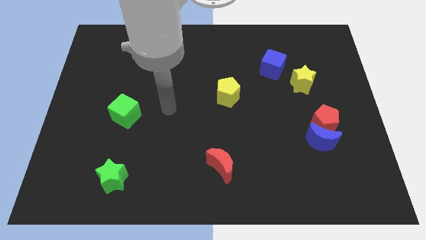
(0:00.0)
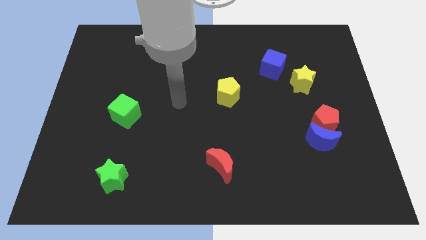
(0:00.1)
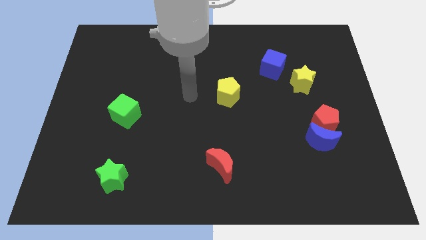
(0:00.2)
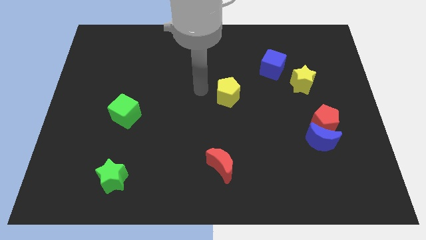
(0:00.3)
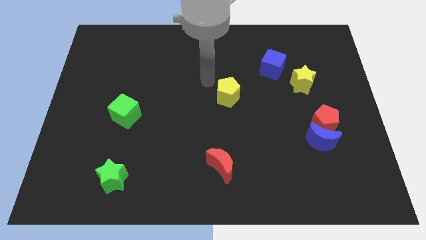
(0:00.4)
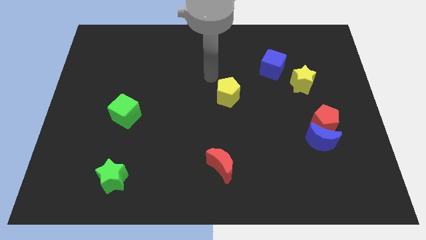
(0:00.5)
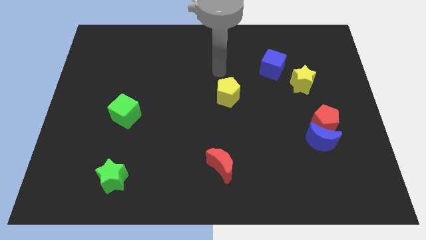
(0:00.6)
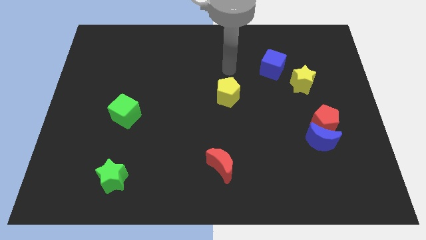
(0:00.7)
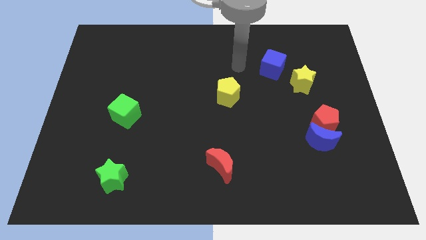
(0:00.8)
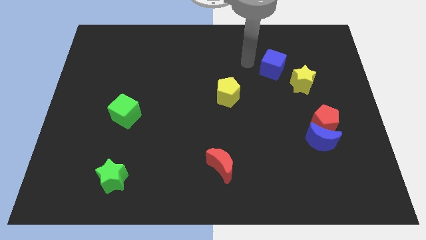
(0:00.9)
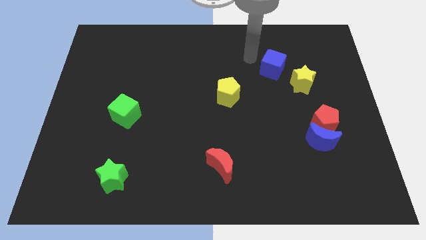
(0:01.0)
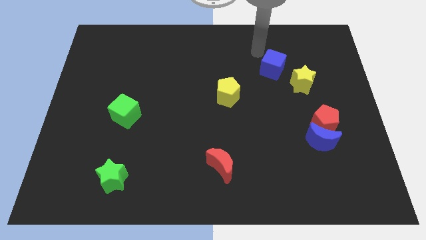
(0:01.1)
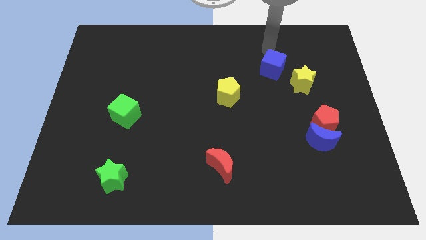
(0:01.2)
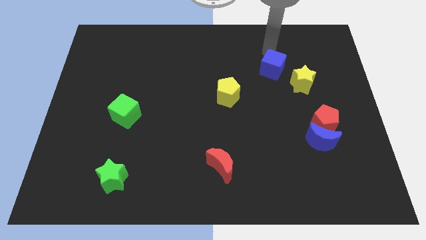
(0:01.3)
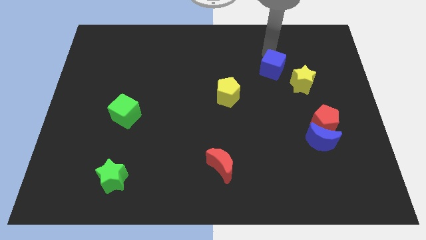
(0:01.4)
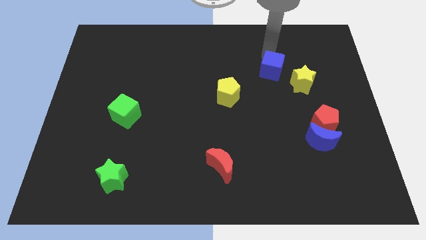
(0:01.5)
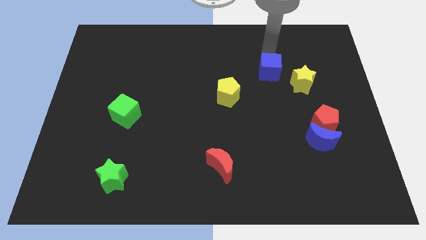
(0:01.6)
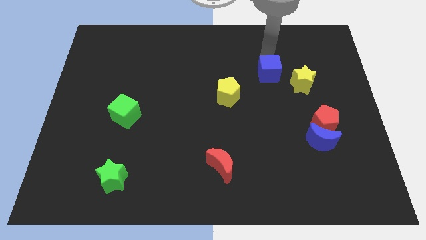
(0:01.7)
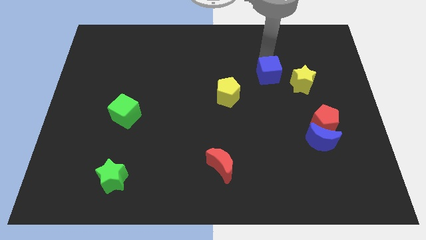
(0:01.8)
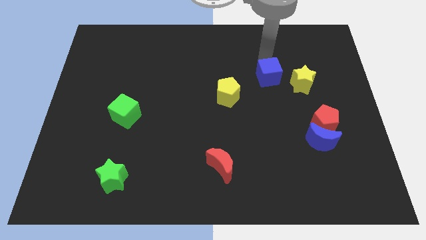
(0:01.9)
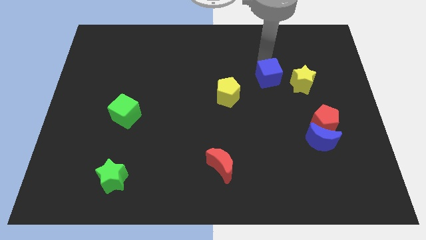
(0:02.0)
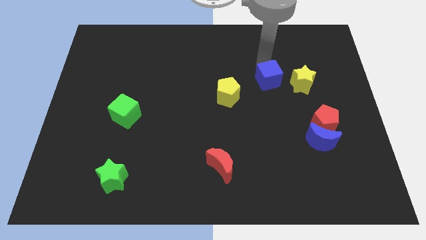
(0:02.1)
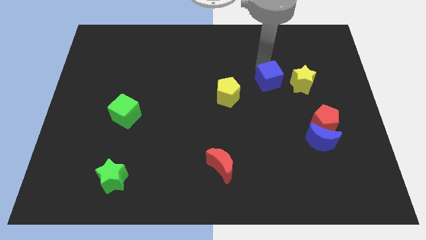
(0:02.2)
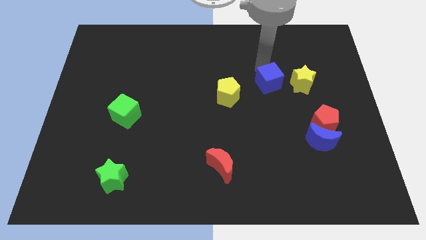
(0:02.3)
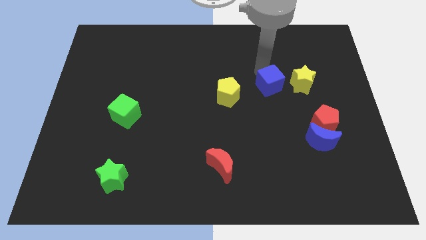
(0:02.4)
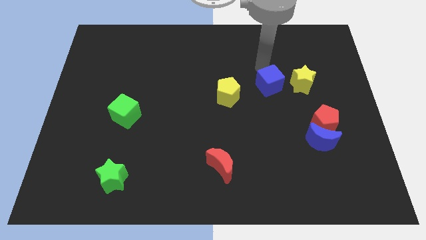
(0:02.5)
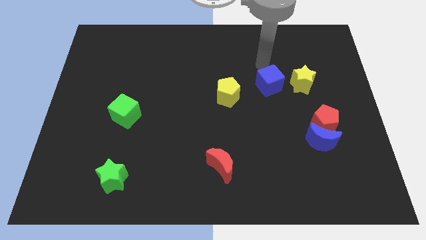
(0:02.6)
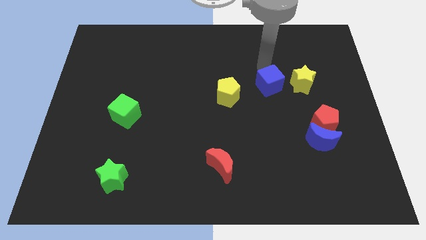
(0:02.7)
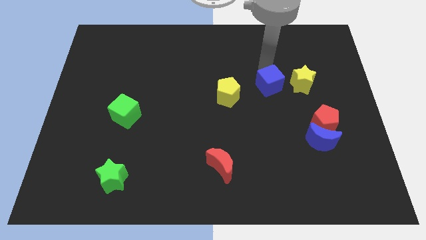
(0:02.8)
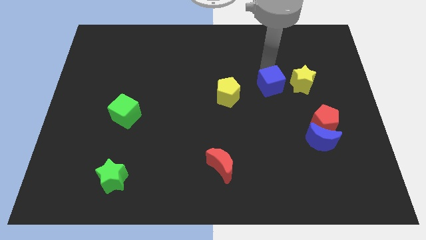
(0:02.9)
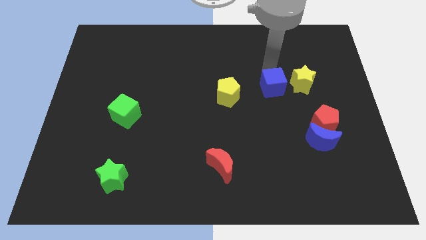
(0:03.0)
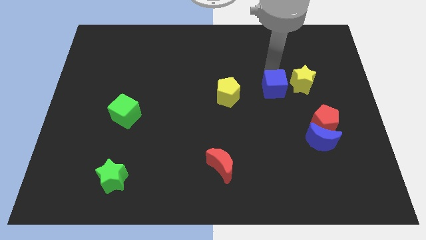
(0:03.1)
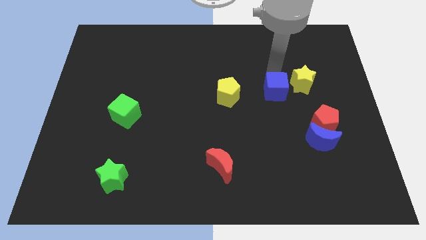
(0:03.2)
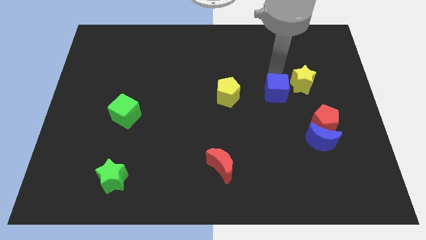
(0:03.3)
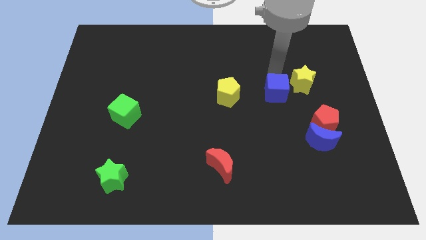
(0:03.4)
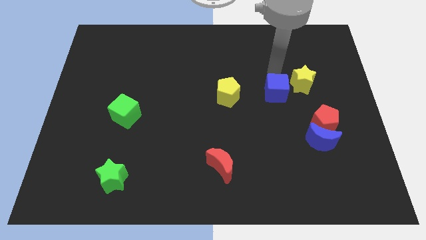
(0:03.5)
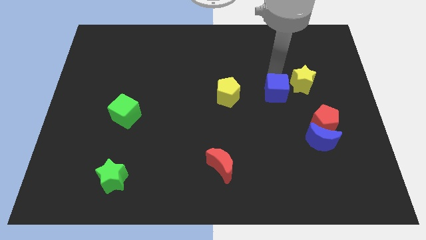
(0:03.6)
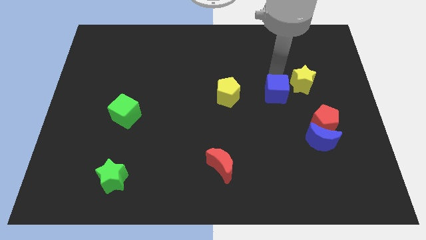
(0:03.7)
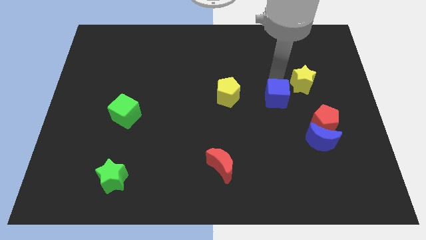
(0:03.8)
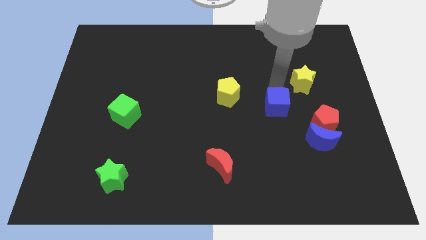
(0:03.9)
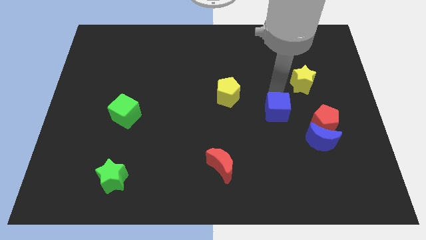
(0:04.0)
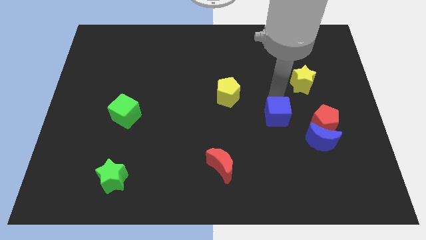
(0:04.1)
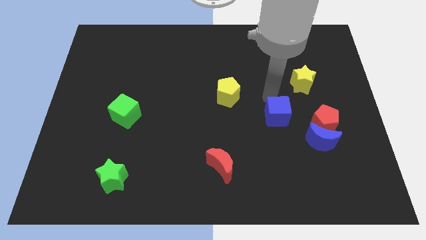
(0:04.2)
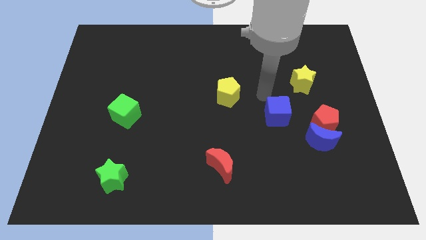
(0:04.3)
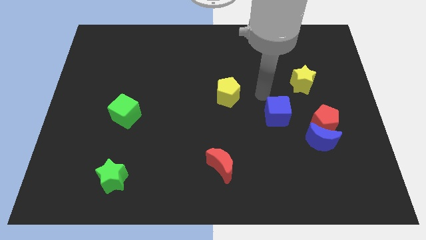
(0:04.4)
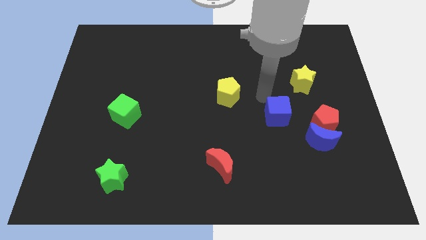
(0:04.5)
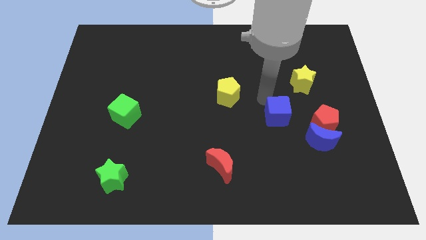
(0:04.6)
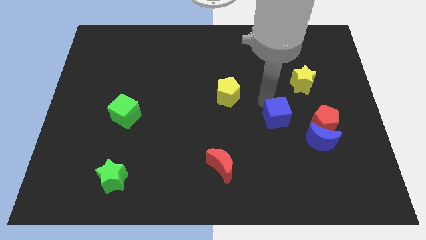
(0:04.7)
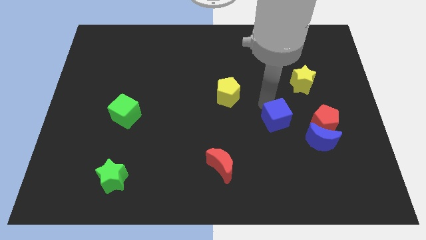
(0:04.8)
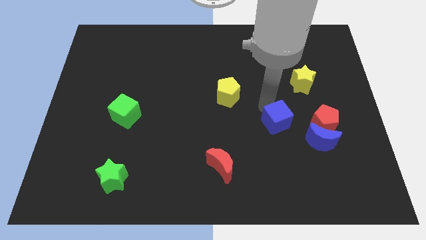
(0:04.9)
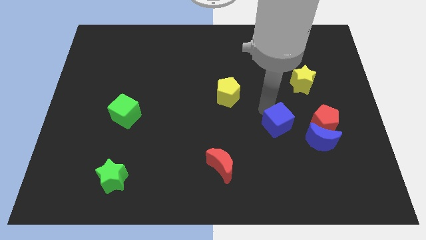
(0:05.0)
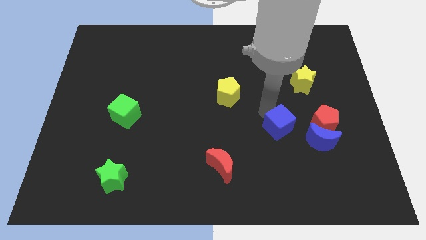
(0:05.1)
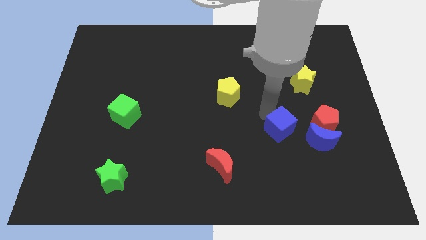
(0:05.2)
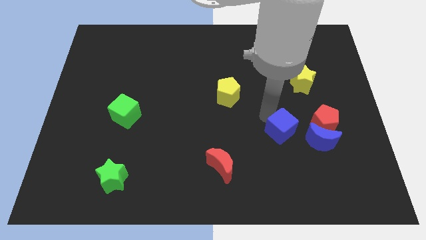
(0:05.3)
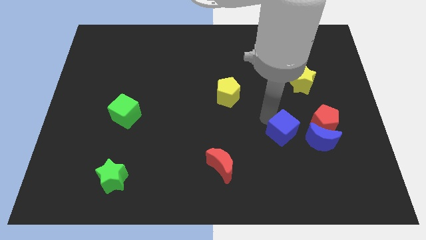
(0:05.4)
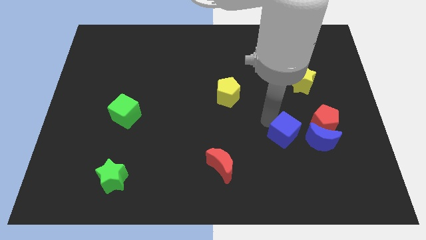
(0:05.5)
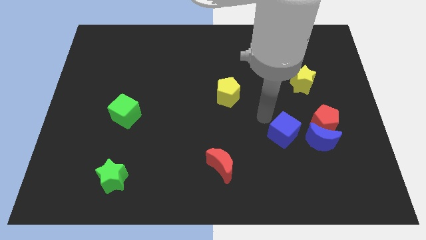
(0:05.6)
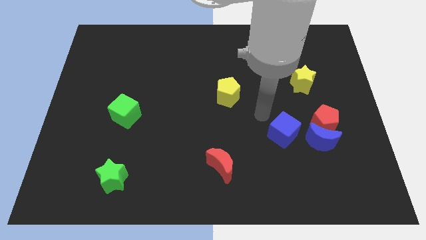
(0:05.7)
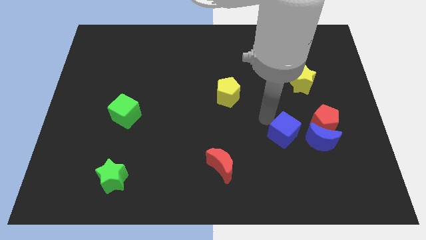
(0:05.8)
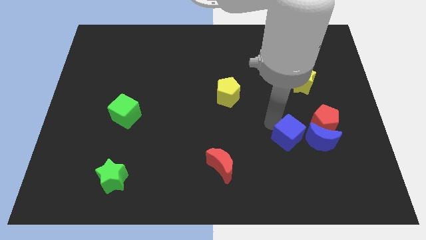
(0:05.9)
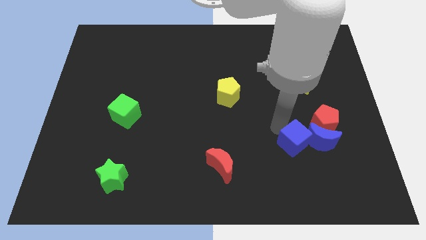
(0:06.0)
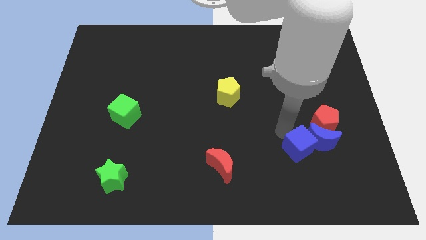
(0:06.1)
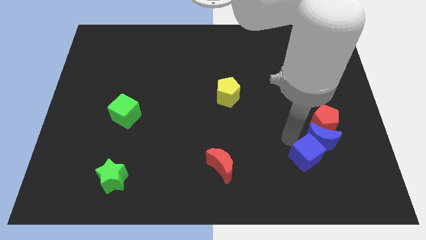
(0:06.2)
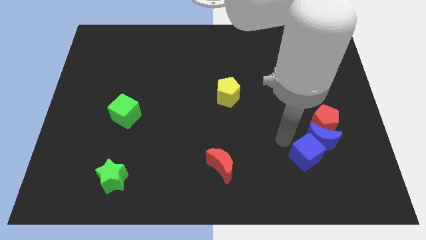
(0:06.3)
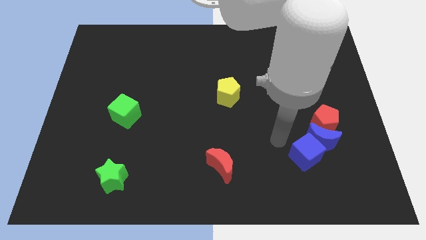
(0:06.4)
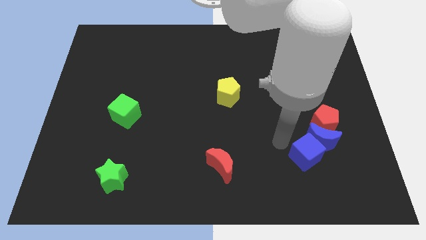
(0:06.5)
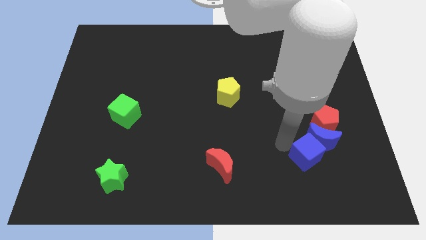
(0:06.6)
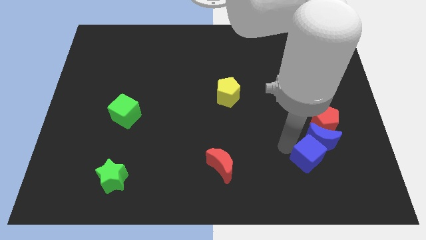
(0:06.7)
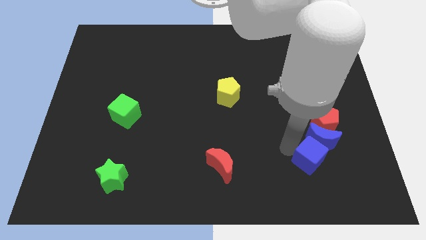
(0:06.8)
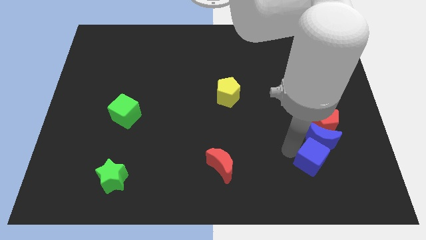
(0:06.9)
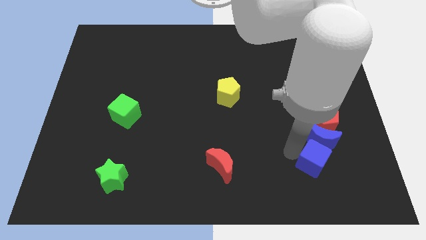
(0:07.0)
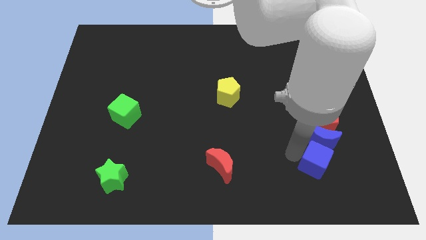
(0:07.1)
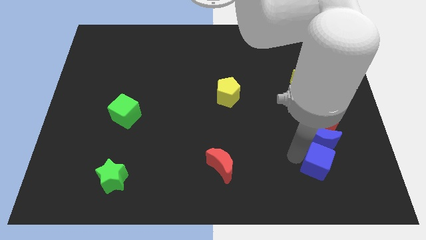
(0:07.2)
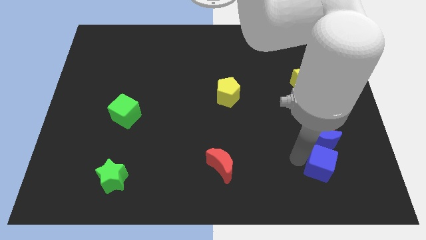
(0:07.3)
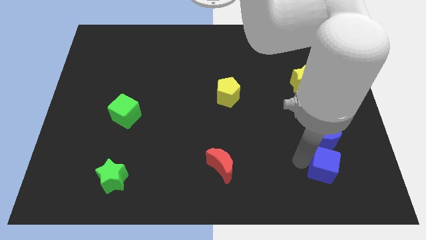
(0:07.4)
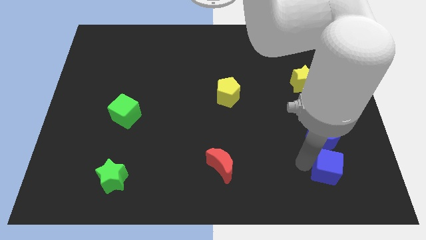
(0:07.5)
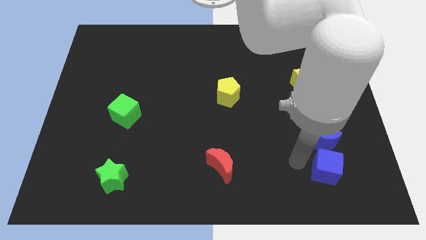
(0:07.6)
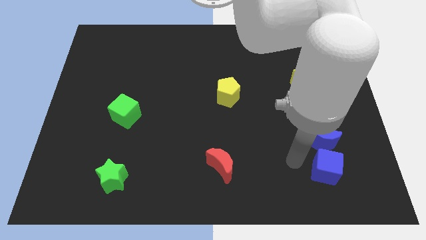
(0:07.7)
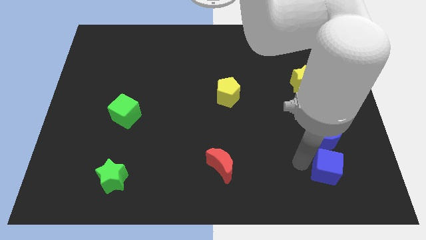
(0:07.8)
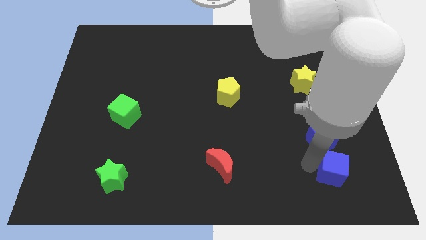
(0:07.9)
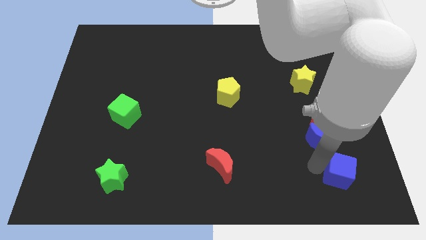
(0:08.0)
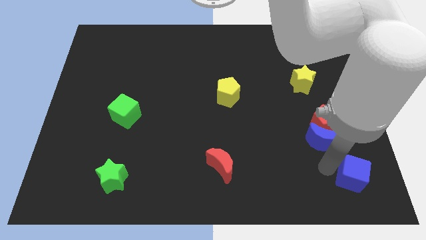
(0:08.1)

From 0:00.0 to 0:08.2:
put the blue cube to the bottom right
